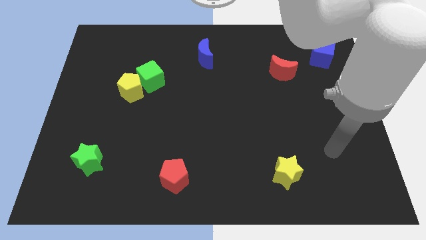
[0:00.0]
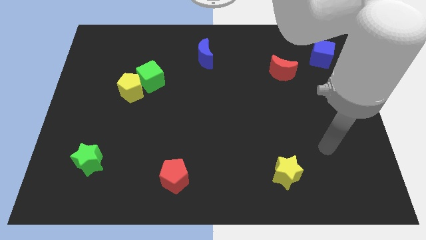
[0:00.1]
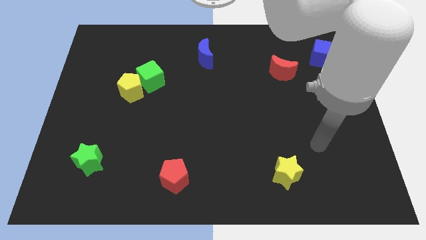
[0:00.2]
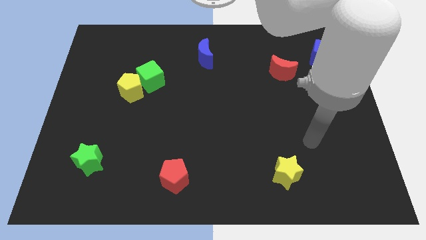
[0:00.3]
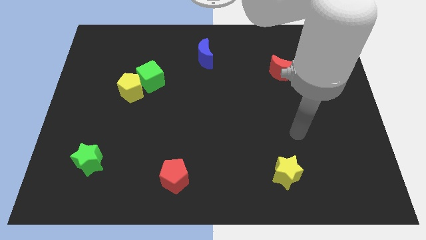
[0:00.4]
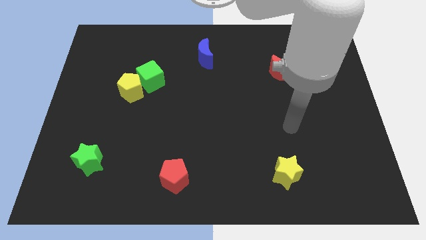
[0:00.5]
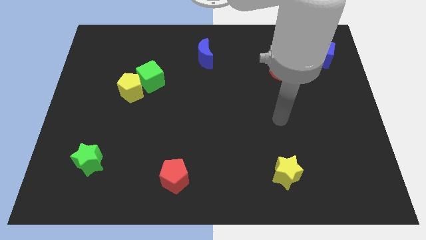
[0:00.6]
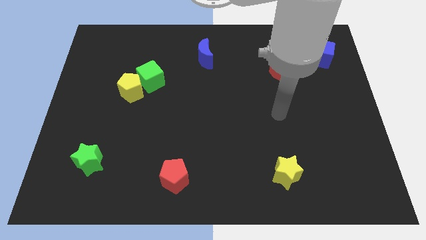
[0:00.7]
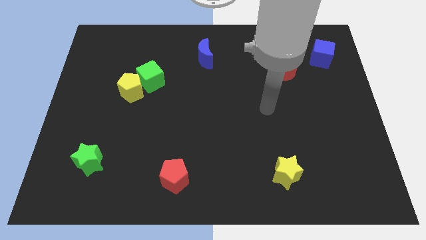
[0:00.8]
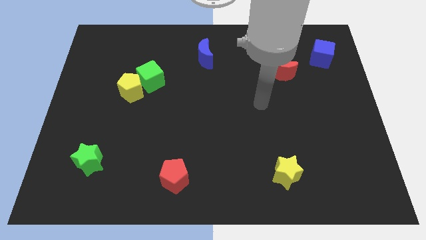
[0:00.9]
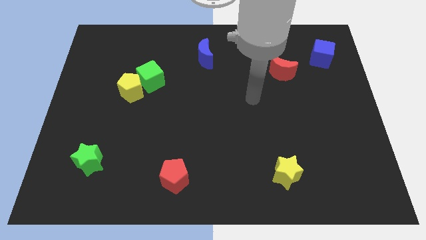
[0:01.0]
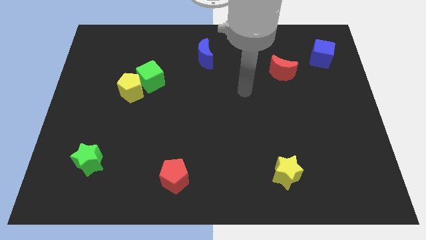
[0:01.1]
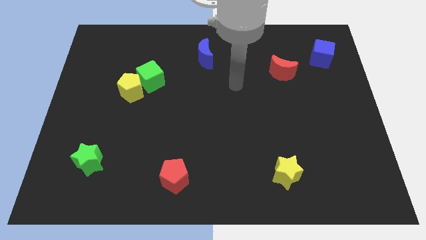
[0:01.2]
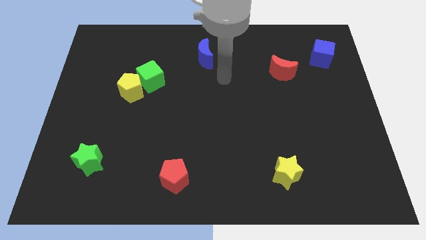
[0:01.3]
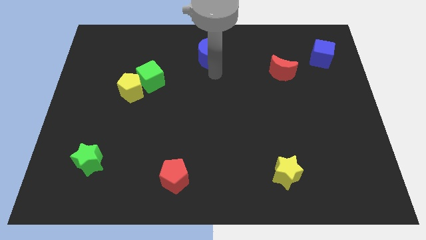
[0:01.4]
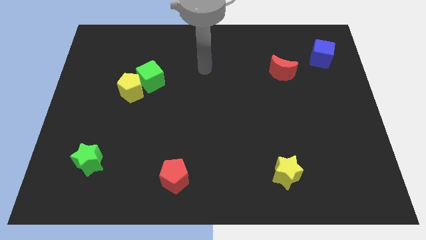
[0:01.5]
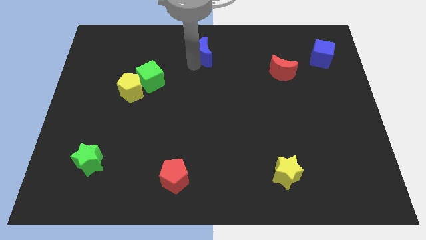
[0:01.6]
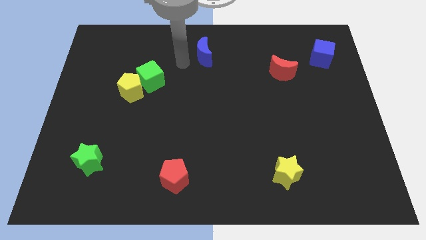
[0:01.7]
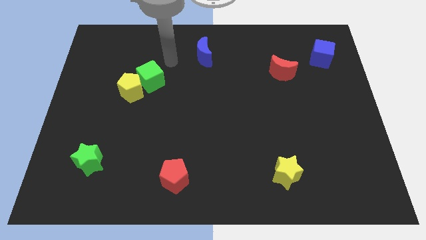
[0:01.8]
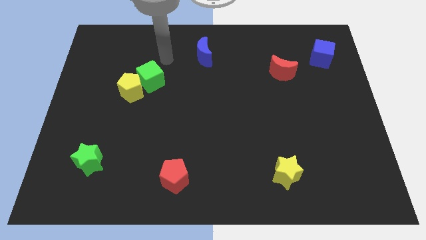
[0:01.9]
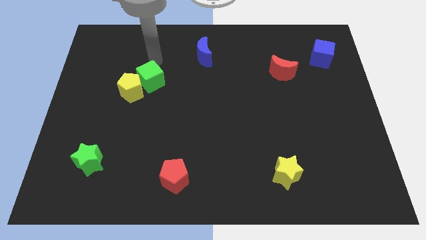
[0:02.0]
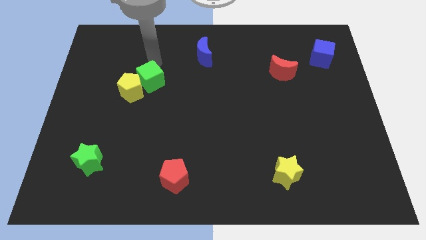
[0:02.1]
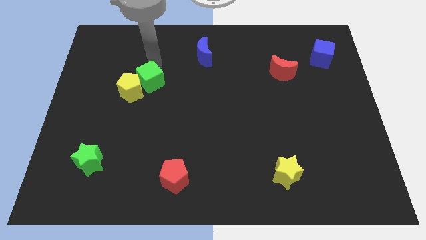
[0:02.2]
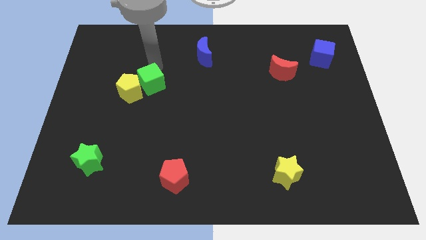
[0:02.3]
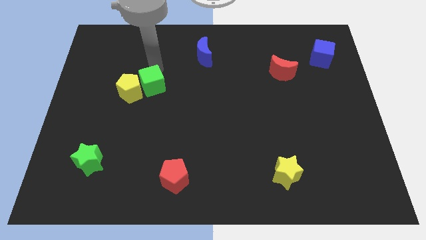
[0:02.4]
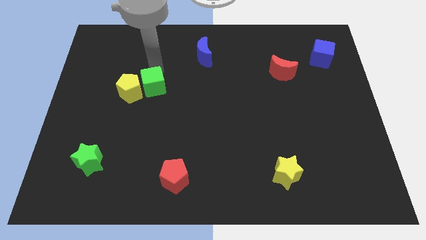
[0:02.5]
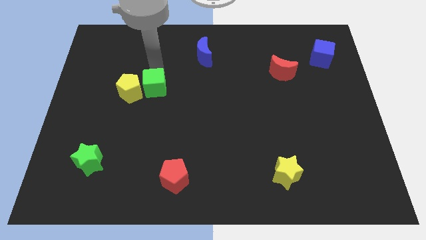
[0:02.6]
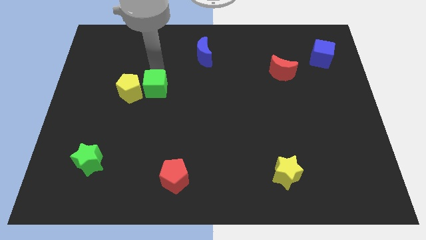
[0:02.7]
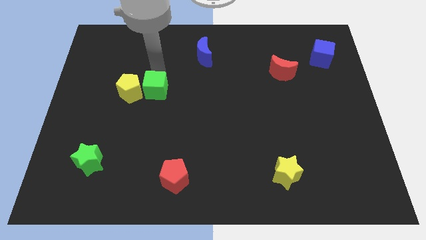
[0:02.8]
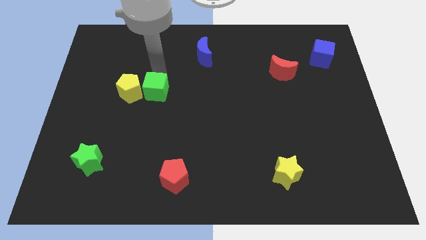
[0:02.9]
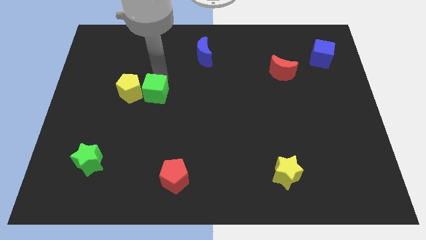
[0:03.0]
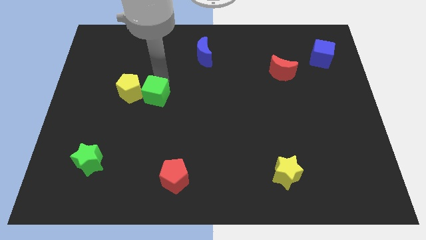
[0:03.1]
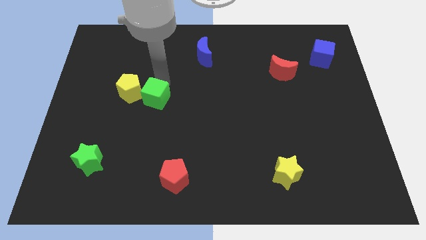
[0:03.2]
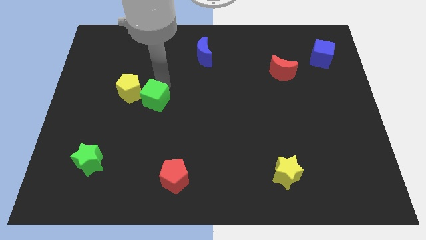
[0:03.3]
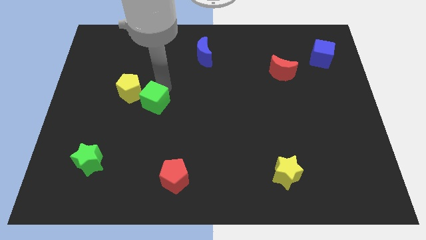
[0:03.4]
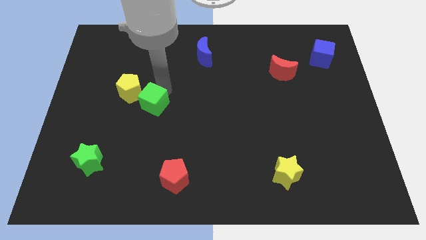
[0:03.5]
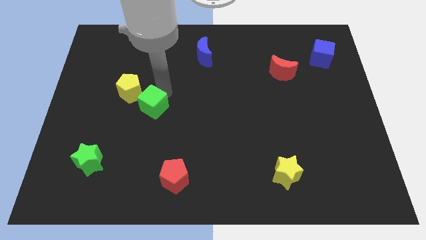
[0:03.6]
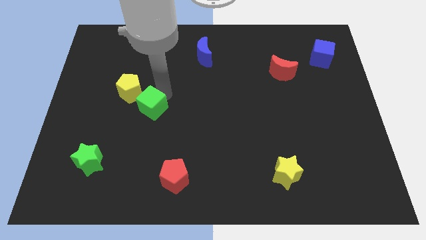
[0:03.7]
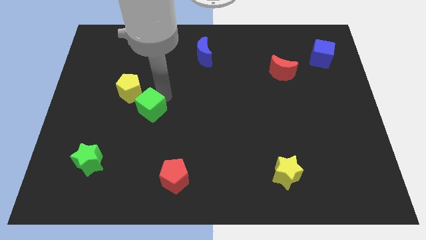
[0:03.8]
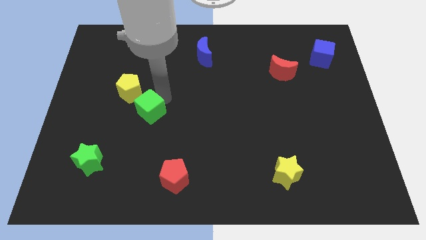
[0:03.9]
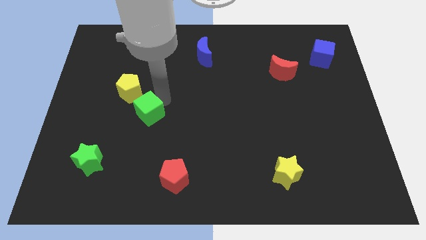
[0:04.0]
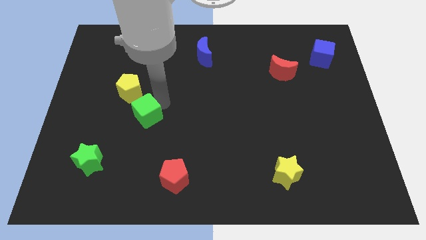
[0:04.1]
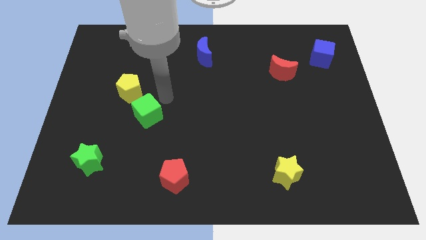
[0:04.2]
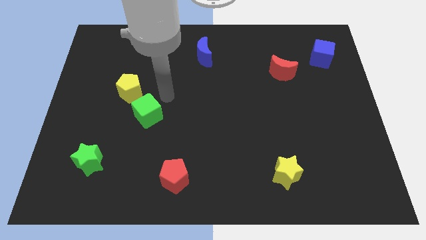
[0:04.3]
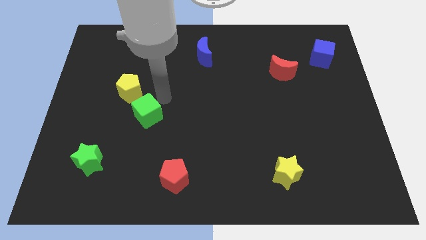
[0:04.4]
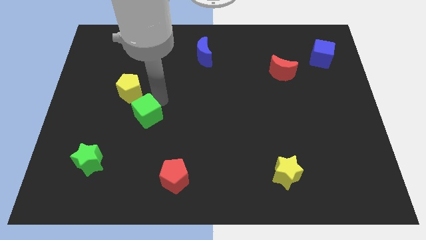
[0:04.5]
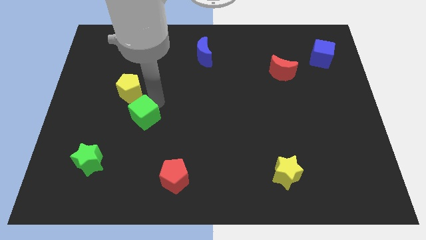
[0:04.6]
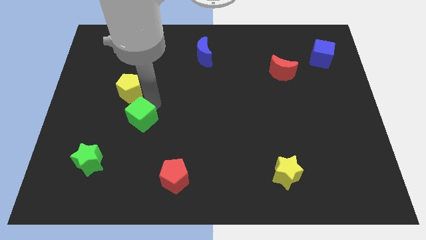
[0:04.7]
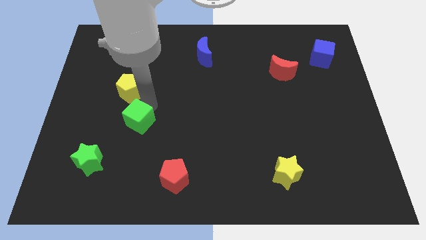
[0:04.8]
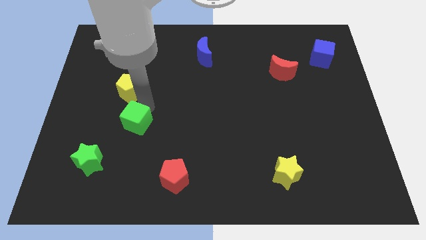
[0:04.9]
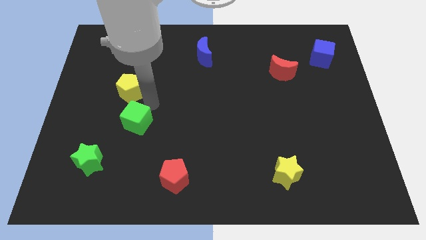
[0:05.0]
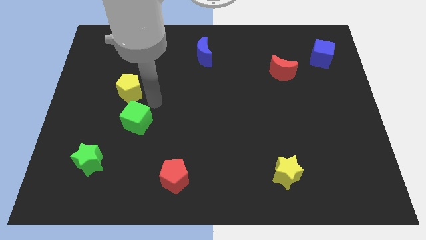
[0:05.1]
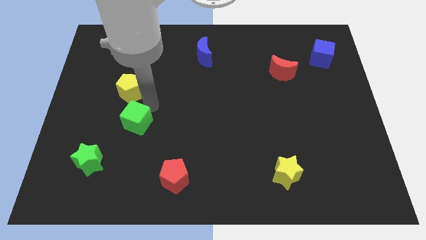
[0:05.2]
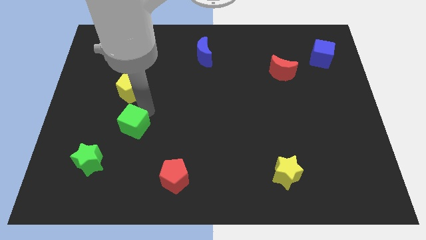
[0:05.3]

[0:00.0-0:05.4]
move the green cube diagonally up and to the right of the green star
